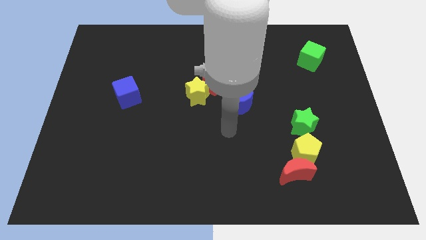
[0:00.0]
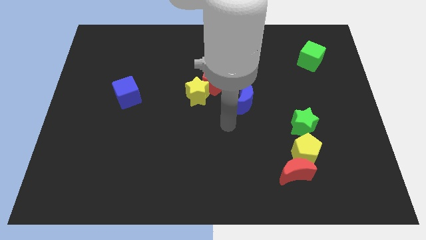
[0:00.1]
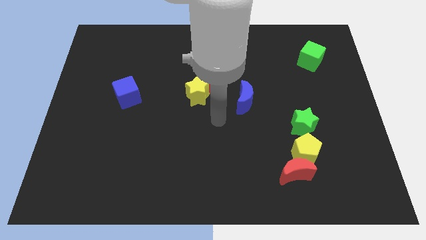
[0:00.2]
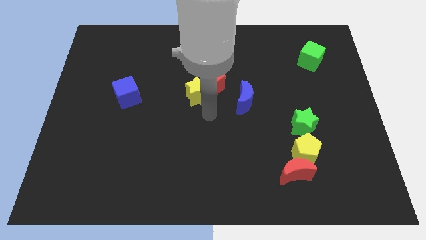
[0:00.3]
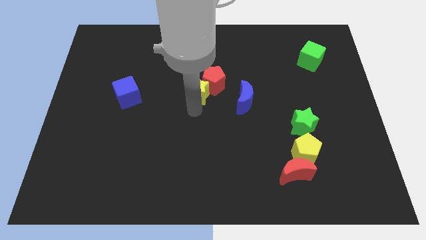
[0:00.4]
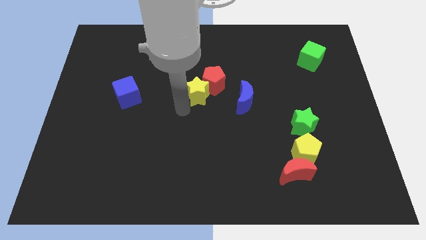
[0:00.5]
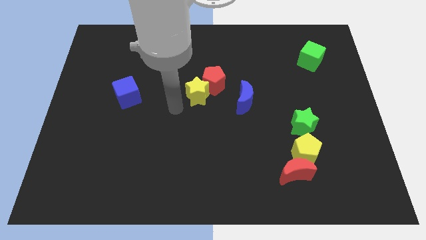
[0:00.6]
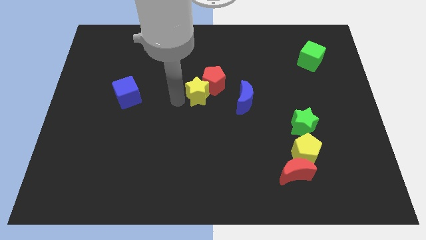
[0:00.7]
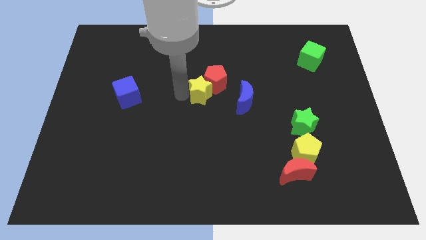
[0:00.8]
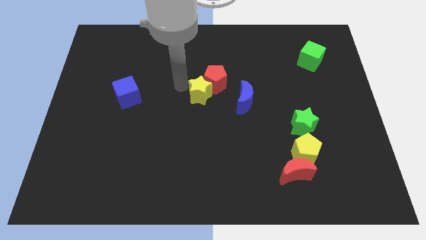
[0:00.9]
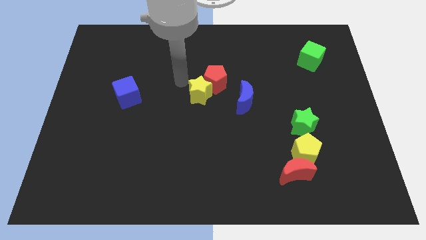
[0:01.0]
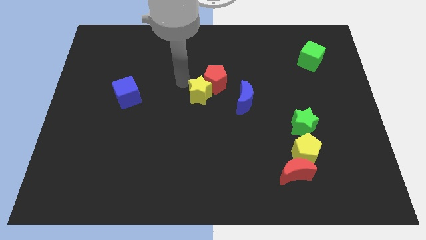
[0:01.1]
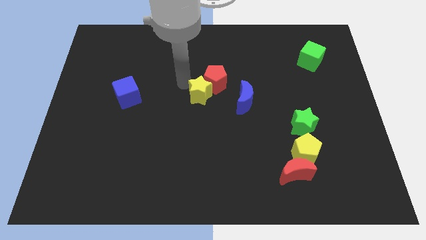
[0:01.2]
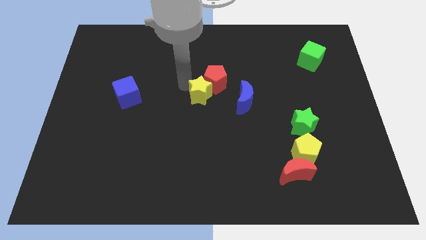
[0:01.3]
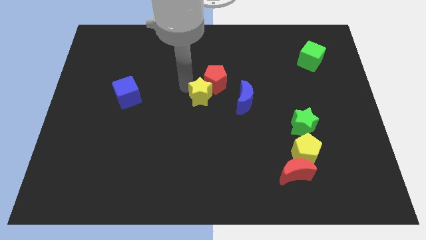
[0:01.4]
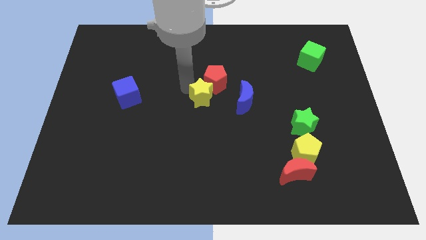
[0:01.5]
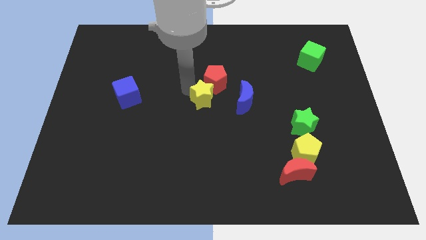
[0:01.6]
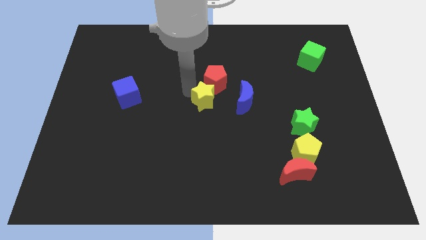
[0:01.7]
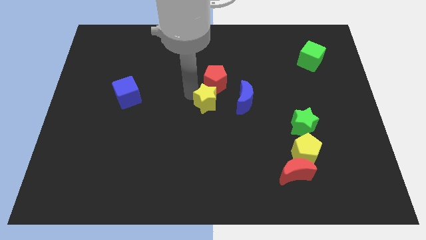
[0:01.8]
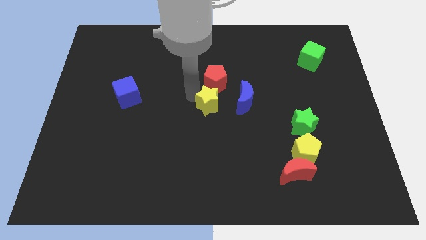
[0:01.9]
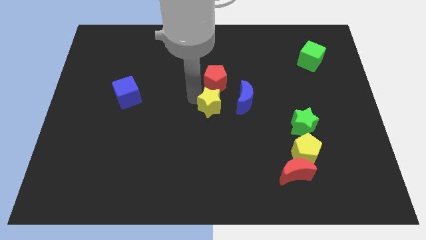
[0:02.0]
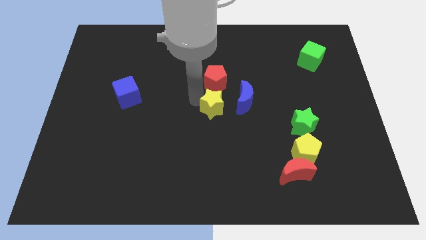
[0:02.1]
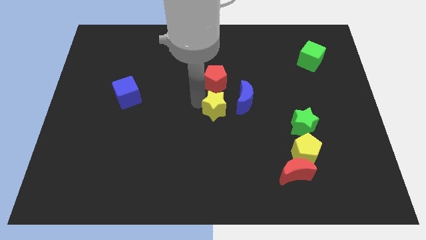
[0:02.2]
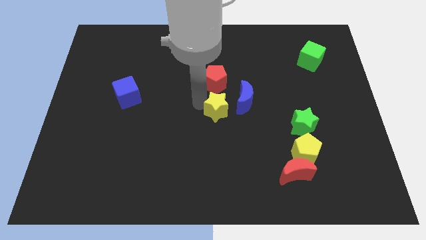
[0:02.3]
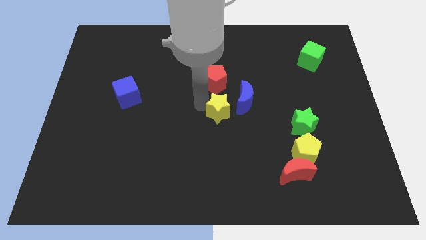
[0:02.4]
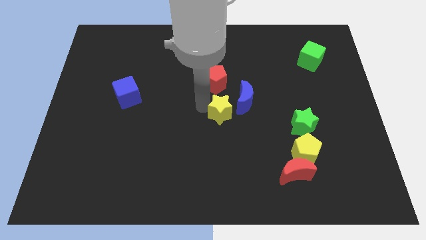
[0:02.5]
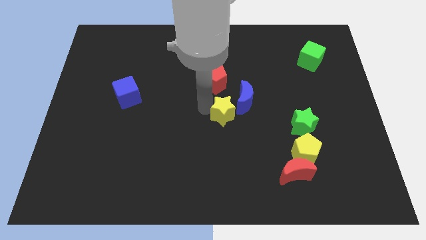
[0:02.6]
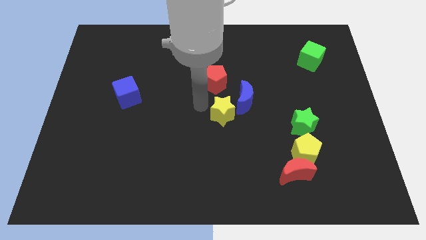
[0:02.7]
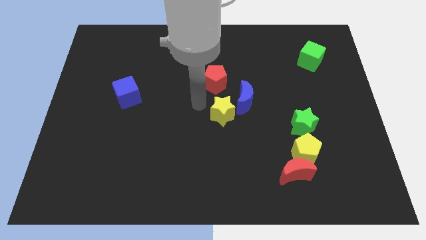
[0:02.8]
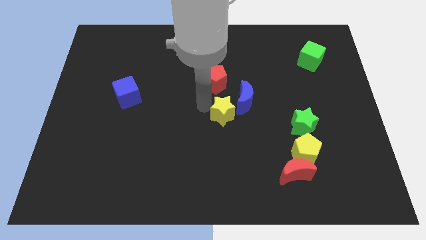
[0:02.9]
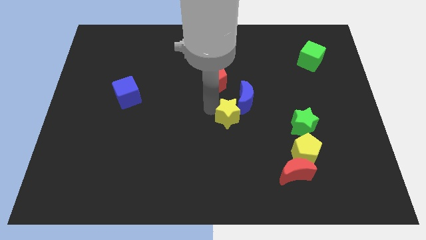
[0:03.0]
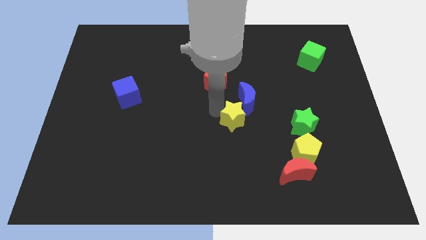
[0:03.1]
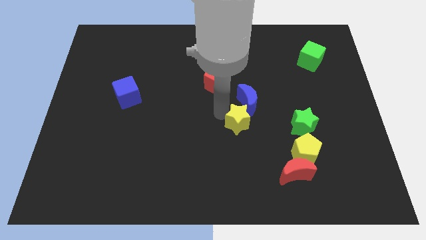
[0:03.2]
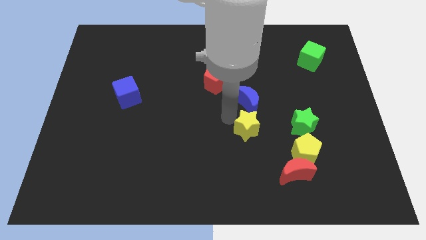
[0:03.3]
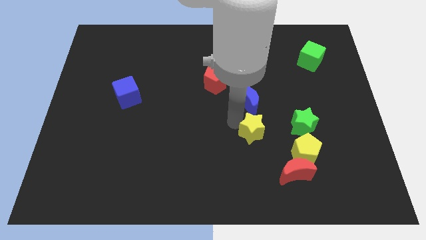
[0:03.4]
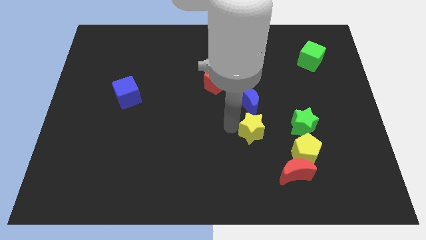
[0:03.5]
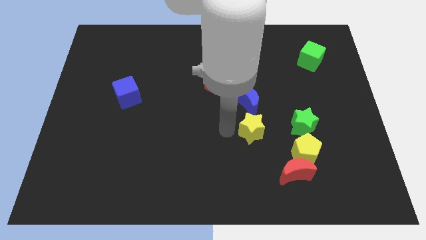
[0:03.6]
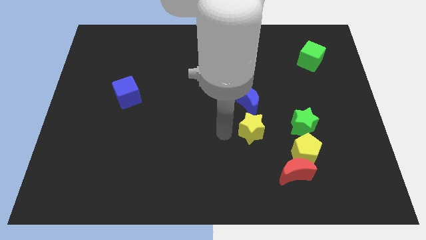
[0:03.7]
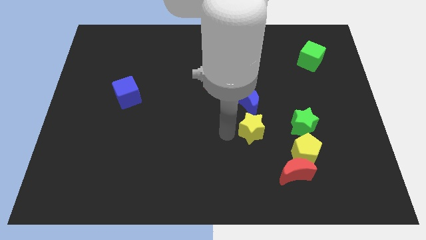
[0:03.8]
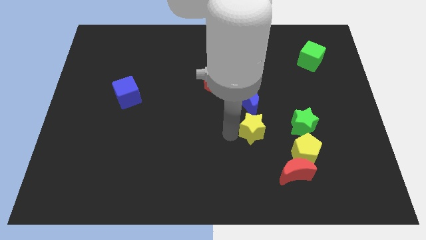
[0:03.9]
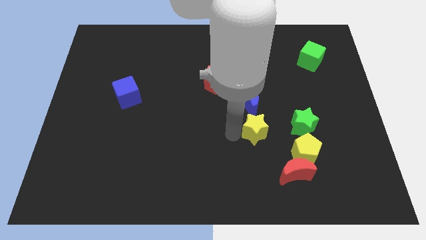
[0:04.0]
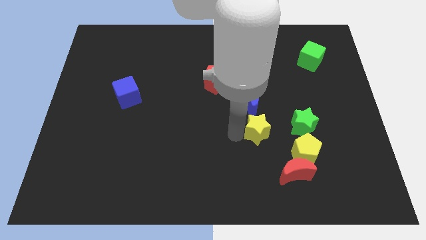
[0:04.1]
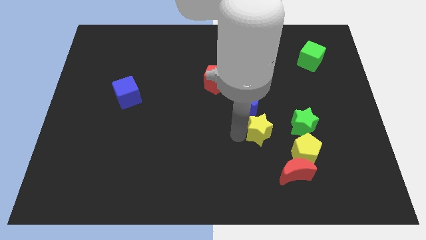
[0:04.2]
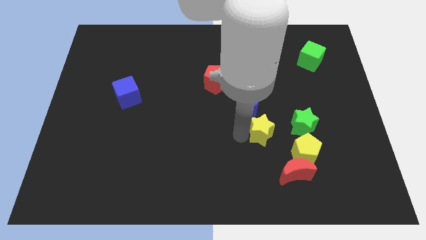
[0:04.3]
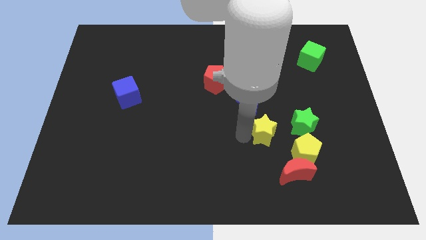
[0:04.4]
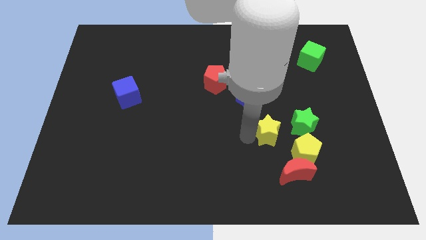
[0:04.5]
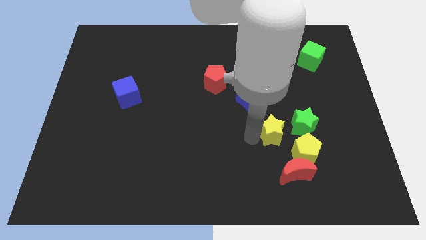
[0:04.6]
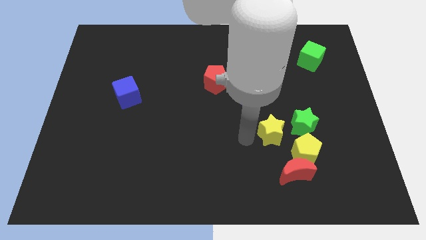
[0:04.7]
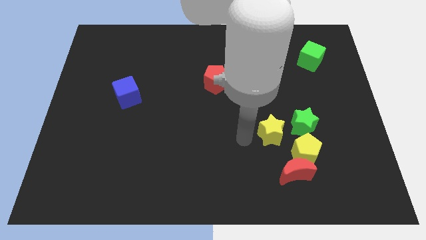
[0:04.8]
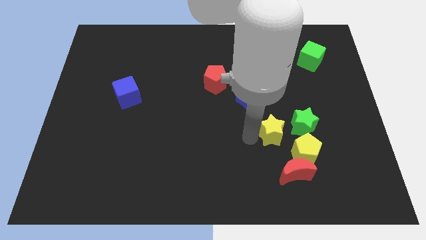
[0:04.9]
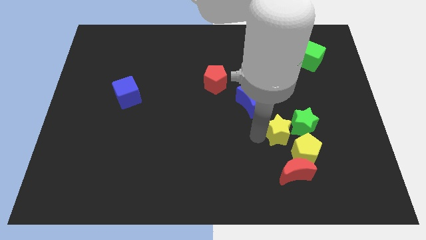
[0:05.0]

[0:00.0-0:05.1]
slide the yellow star next to the green star

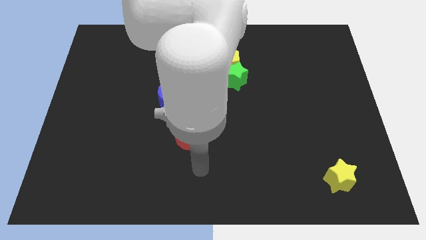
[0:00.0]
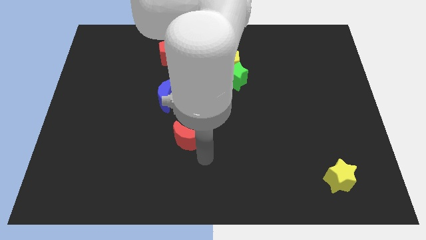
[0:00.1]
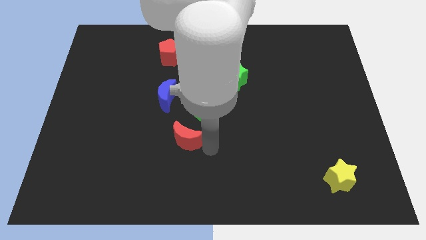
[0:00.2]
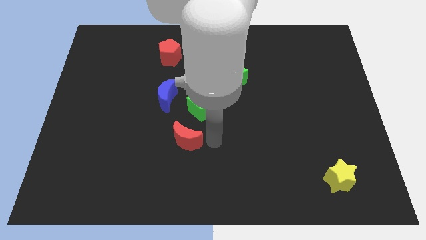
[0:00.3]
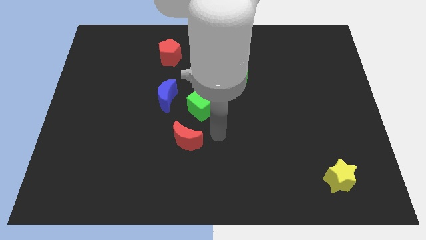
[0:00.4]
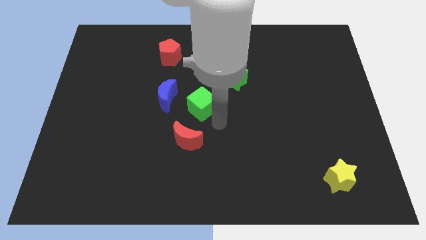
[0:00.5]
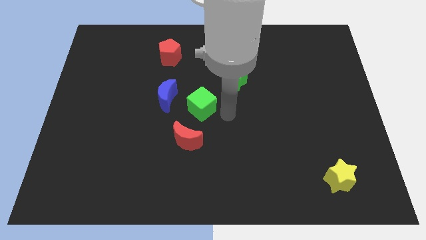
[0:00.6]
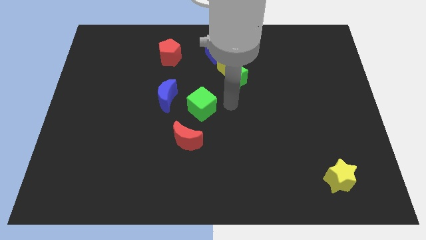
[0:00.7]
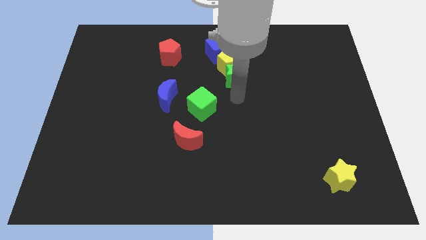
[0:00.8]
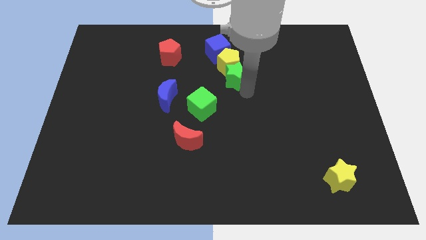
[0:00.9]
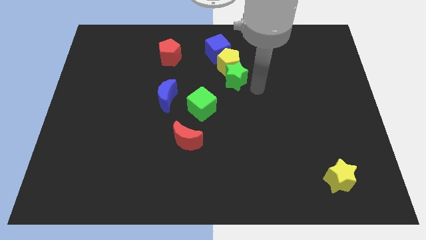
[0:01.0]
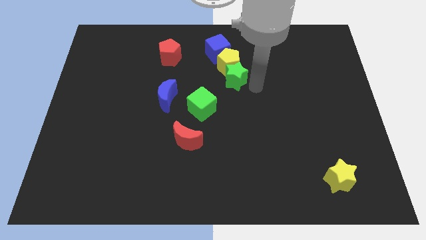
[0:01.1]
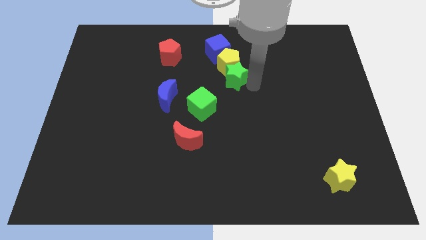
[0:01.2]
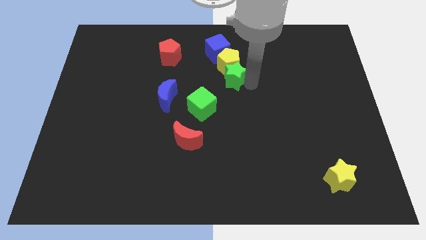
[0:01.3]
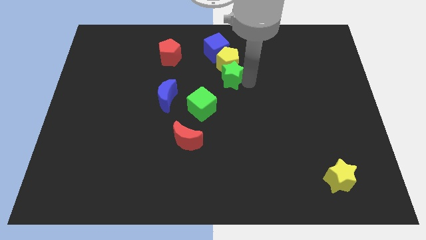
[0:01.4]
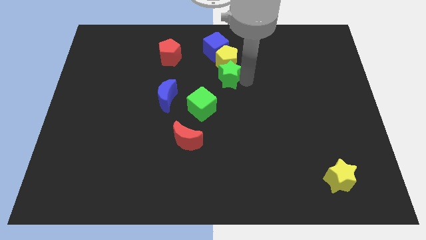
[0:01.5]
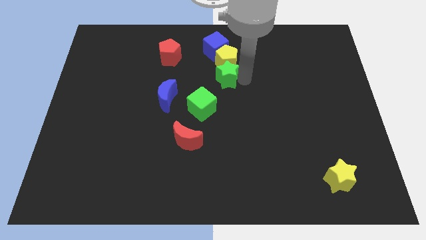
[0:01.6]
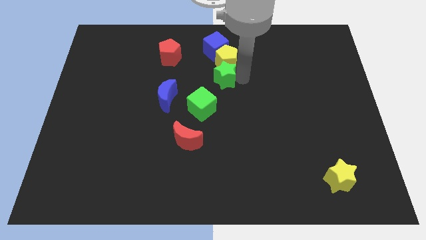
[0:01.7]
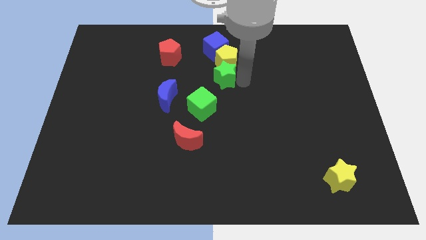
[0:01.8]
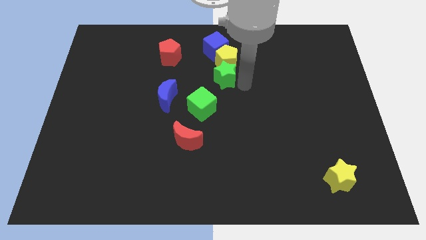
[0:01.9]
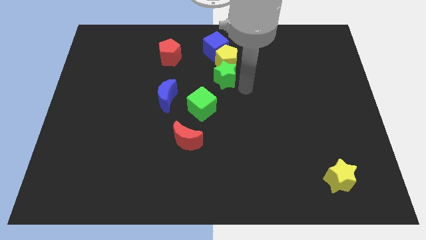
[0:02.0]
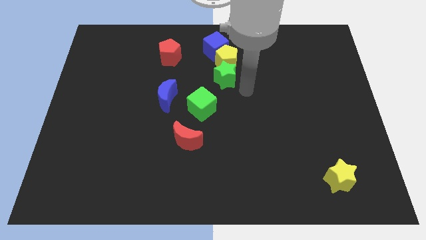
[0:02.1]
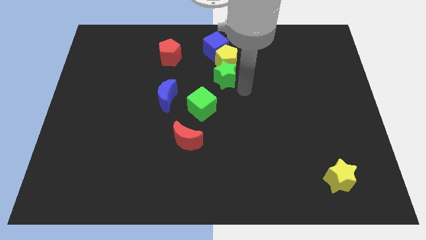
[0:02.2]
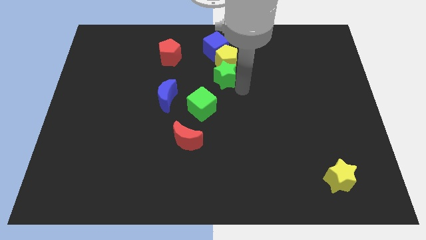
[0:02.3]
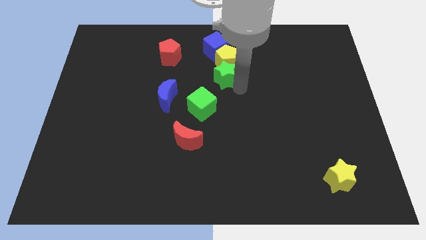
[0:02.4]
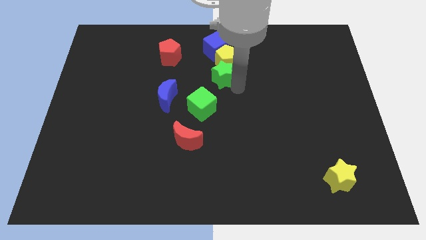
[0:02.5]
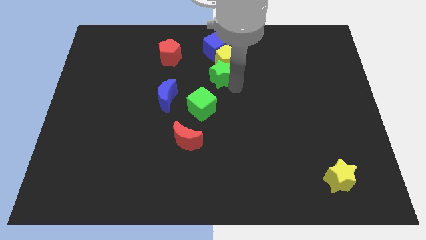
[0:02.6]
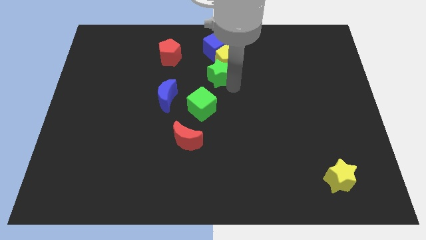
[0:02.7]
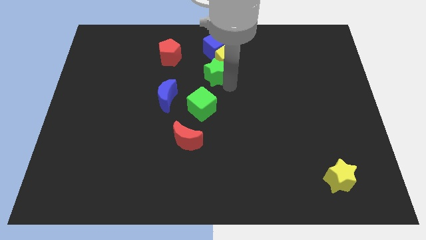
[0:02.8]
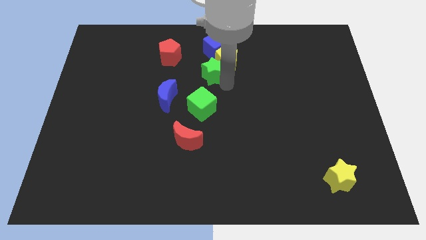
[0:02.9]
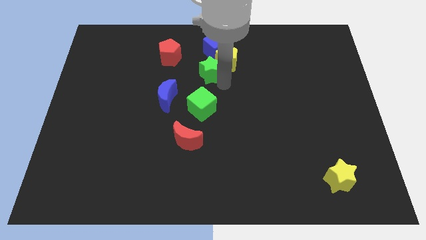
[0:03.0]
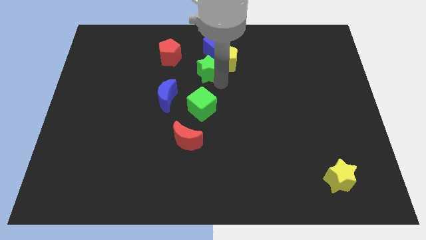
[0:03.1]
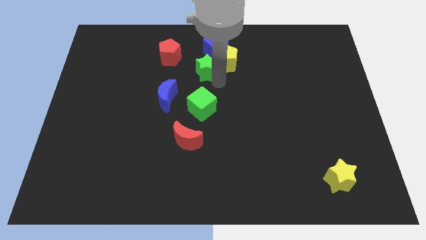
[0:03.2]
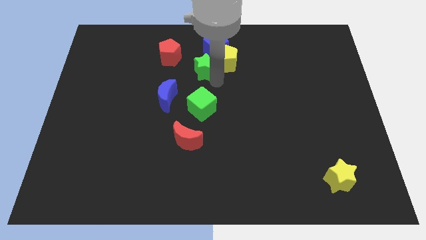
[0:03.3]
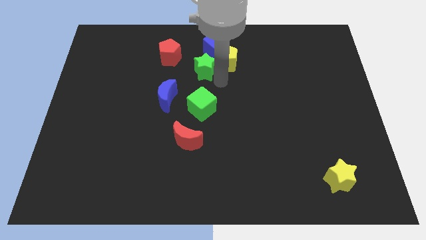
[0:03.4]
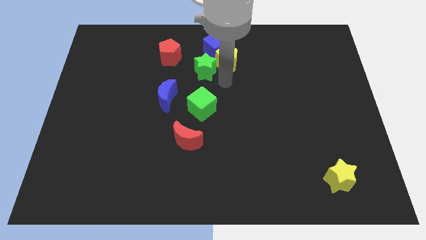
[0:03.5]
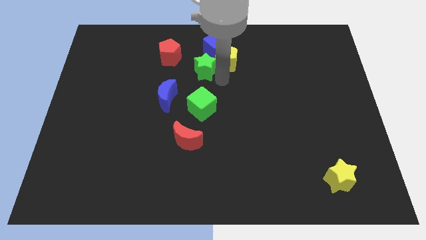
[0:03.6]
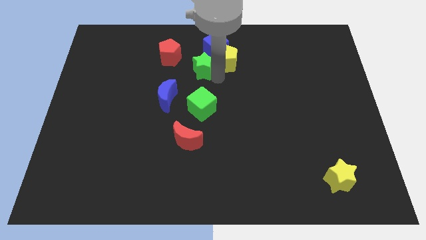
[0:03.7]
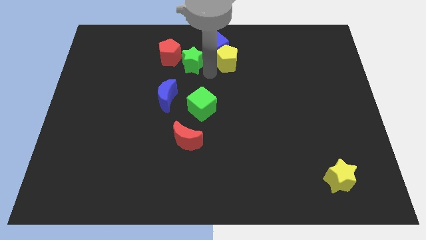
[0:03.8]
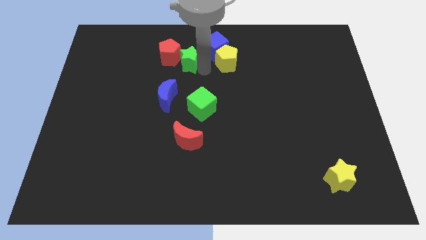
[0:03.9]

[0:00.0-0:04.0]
slide the green star to the red pentagon
